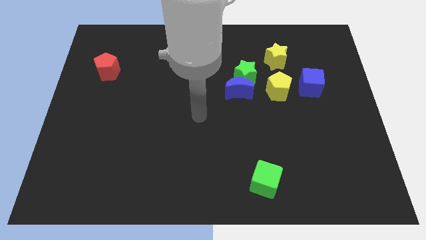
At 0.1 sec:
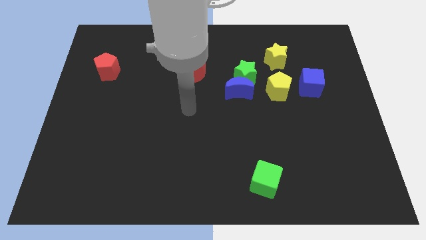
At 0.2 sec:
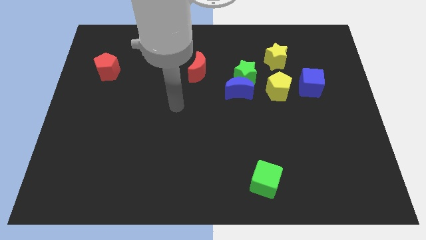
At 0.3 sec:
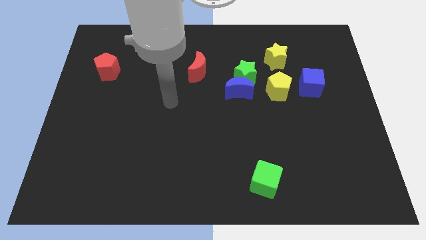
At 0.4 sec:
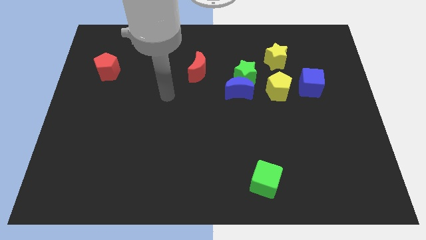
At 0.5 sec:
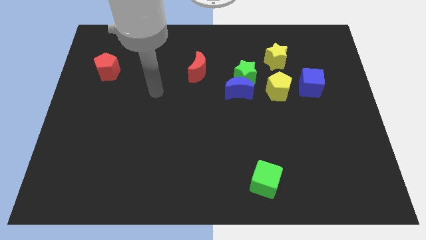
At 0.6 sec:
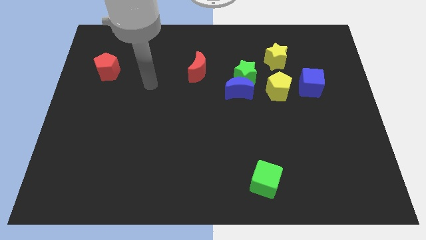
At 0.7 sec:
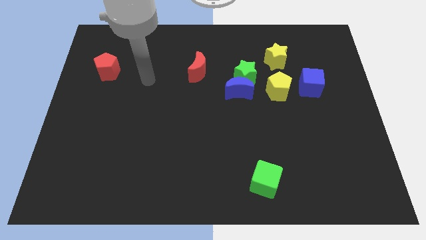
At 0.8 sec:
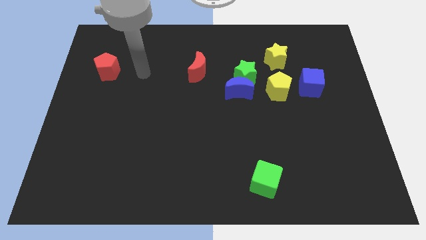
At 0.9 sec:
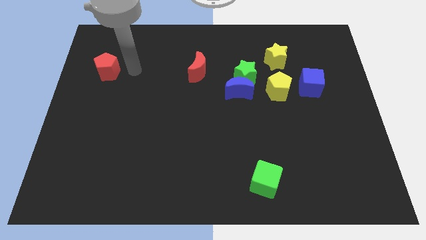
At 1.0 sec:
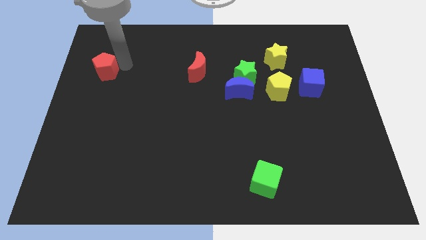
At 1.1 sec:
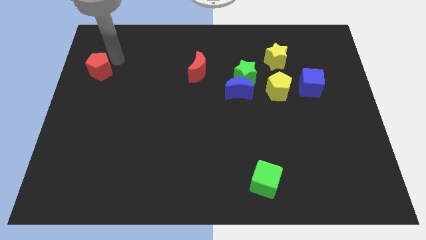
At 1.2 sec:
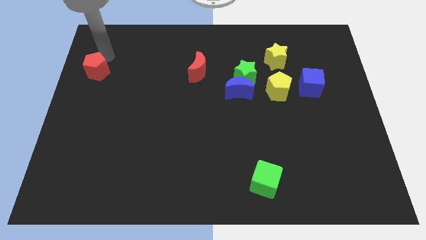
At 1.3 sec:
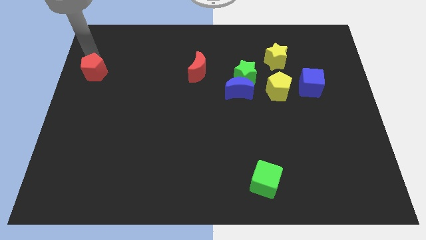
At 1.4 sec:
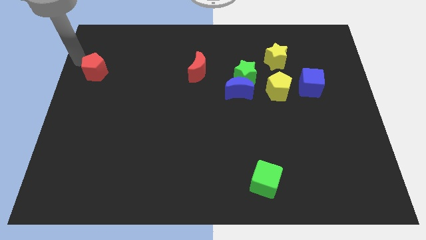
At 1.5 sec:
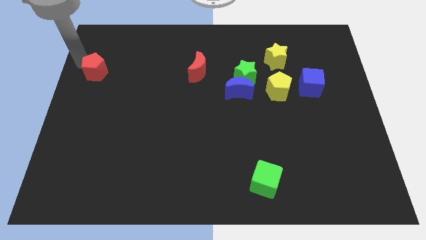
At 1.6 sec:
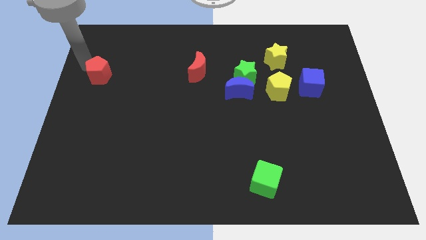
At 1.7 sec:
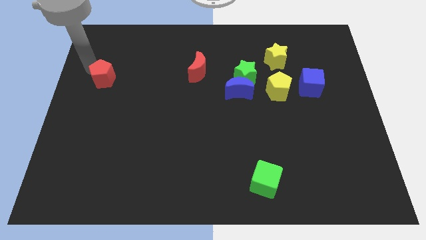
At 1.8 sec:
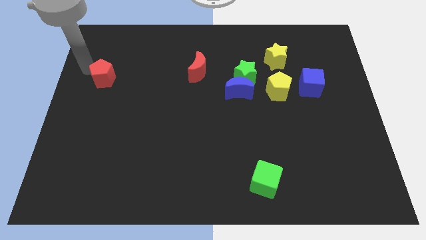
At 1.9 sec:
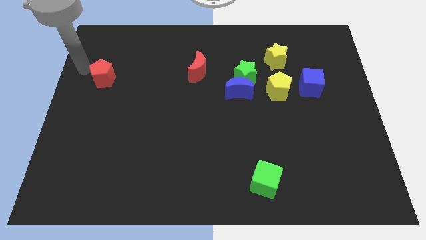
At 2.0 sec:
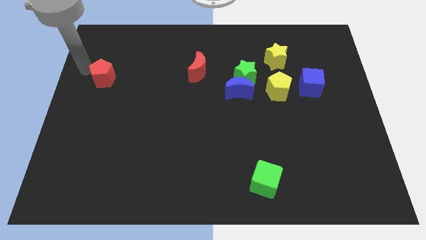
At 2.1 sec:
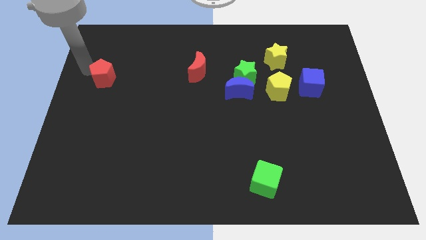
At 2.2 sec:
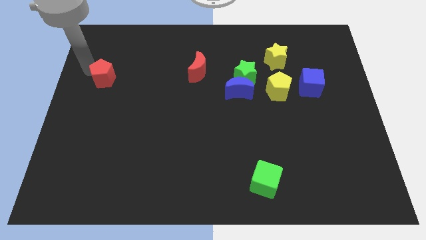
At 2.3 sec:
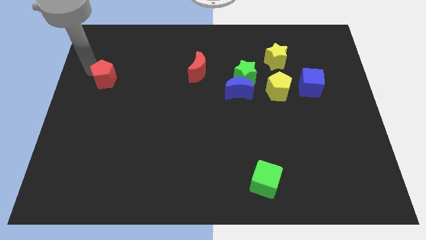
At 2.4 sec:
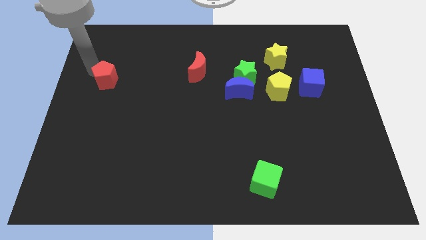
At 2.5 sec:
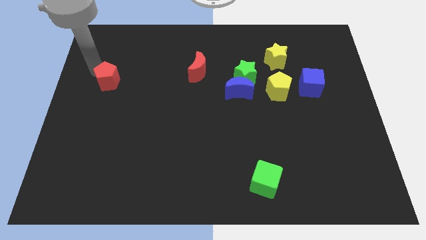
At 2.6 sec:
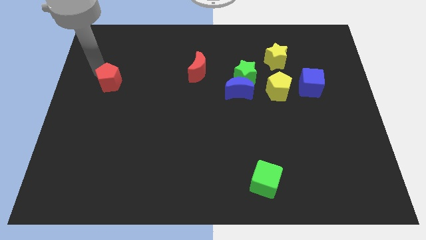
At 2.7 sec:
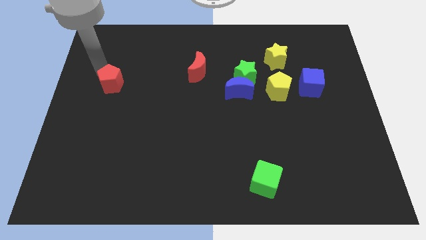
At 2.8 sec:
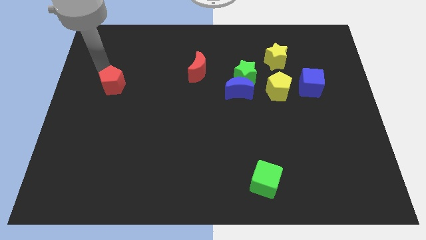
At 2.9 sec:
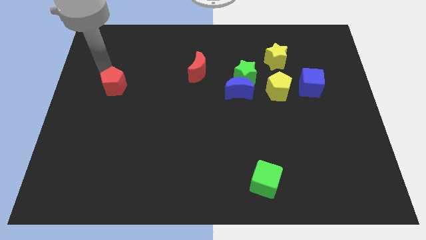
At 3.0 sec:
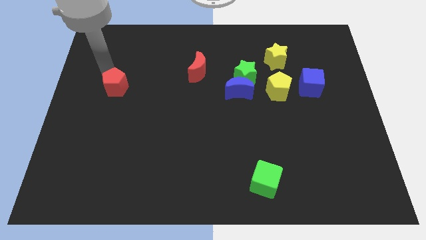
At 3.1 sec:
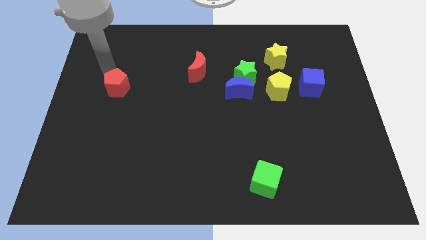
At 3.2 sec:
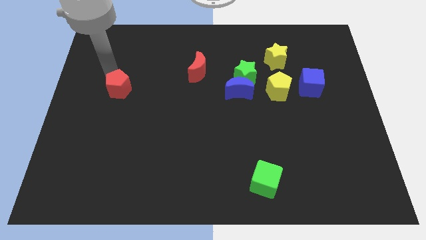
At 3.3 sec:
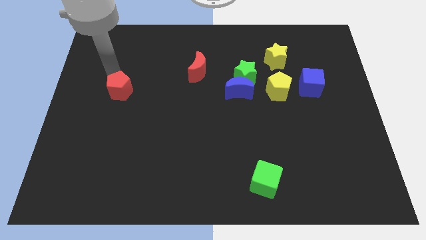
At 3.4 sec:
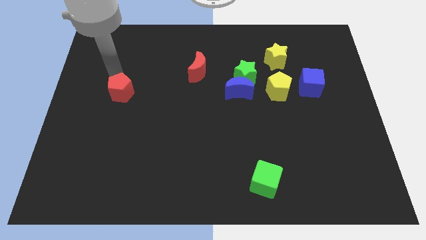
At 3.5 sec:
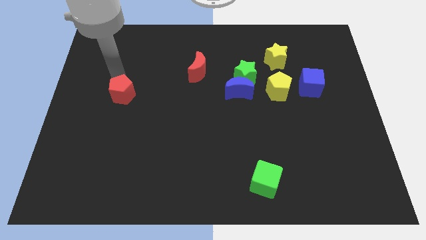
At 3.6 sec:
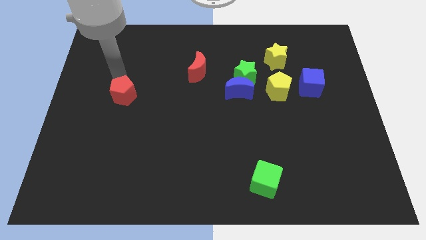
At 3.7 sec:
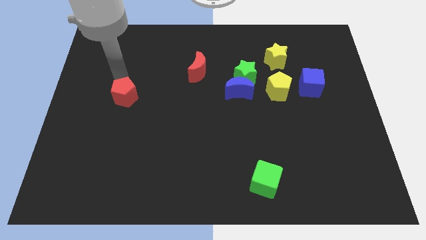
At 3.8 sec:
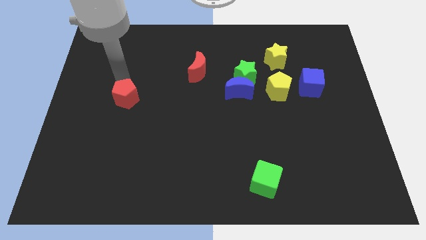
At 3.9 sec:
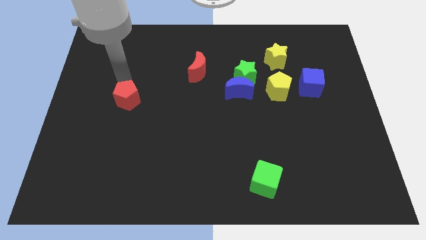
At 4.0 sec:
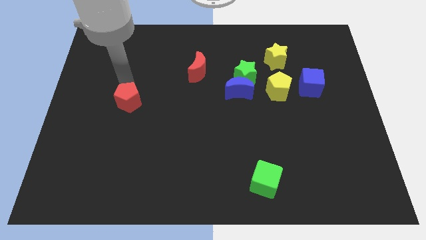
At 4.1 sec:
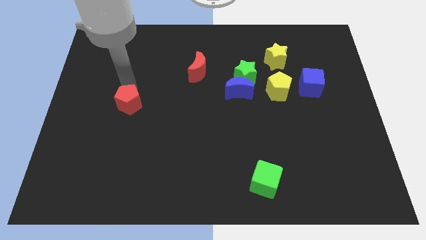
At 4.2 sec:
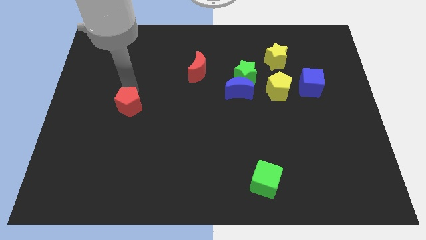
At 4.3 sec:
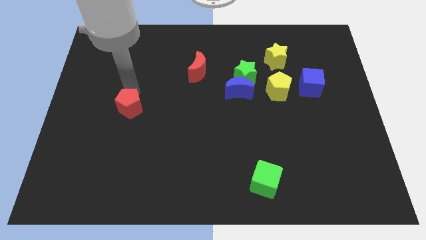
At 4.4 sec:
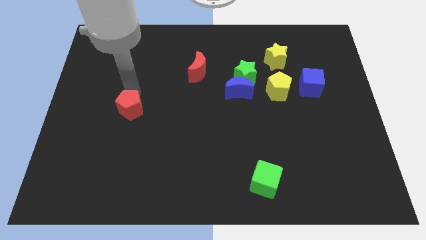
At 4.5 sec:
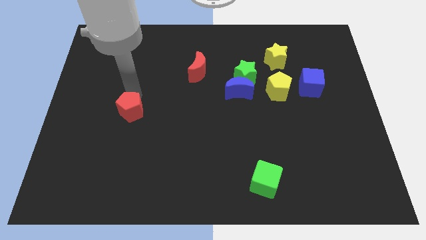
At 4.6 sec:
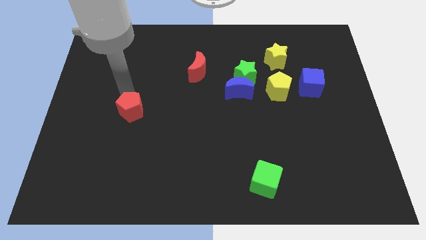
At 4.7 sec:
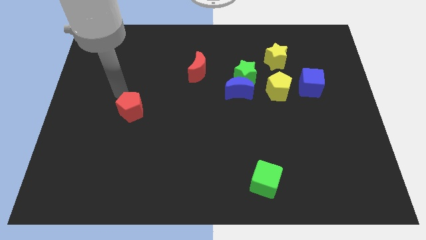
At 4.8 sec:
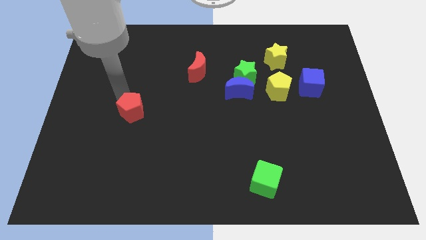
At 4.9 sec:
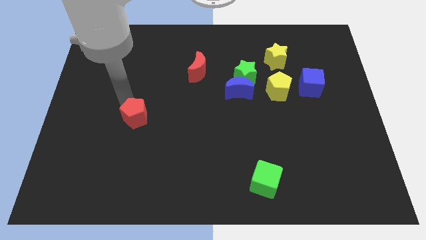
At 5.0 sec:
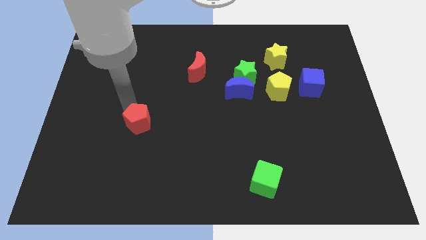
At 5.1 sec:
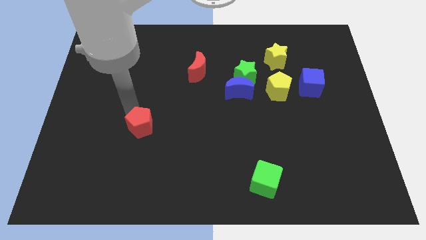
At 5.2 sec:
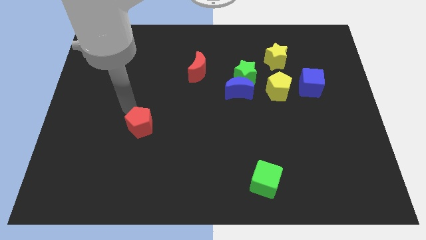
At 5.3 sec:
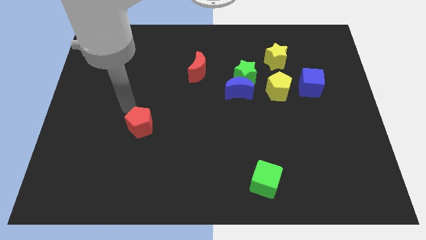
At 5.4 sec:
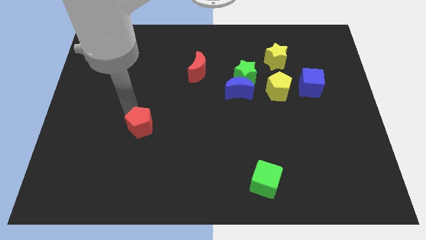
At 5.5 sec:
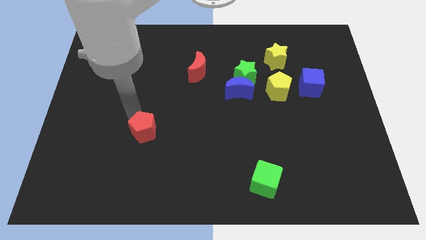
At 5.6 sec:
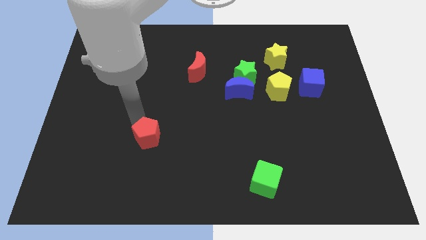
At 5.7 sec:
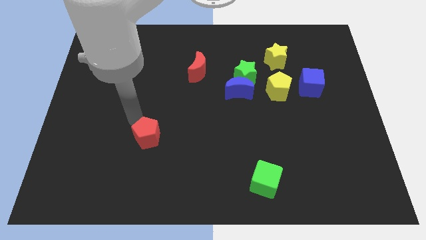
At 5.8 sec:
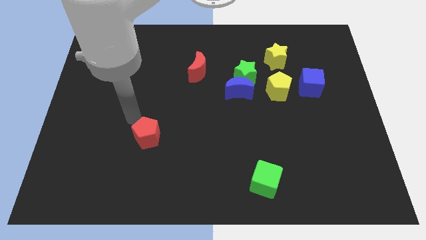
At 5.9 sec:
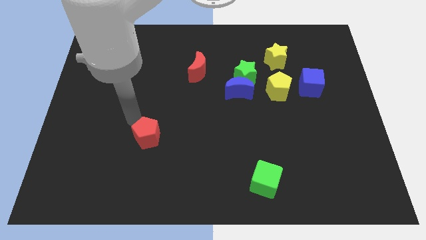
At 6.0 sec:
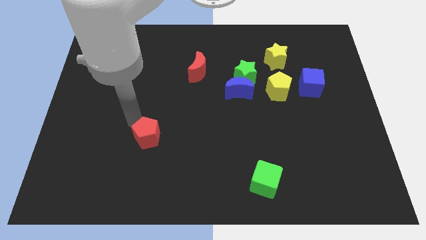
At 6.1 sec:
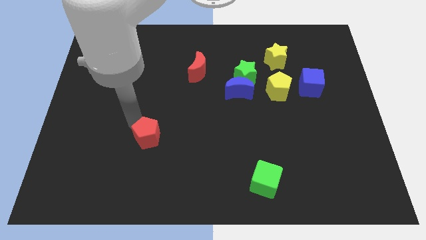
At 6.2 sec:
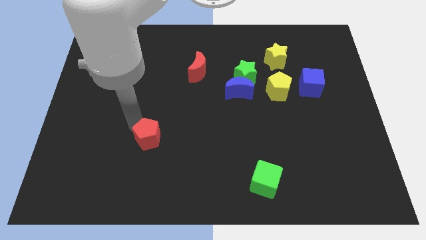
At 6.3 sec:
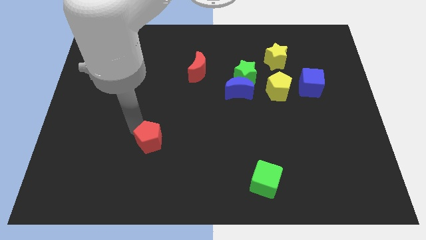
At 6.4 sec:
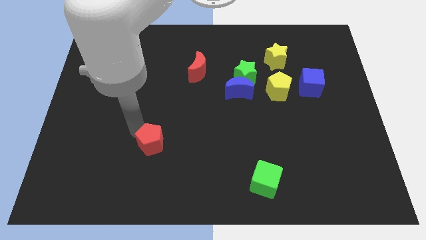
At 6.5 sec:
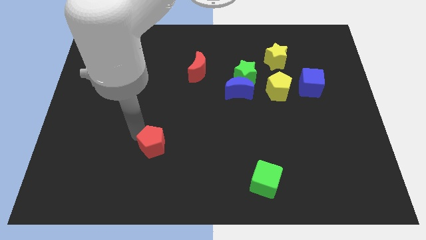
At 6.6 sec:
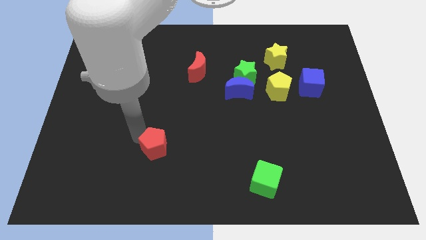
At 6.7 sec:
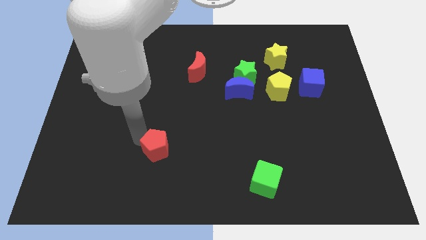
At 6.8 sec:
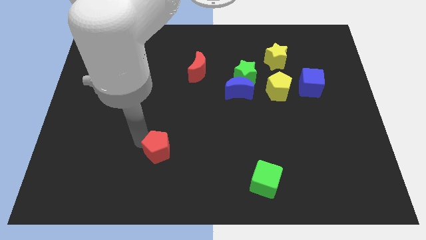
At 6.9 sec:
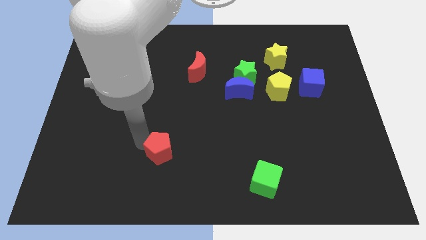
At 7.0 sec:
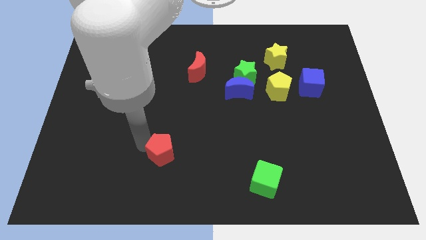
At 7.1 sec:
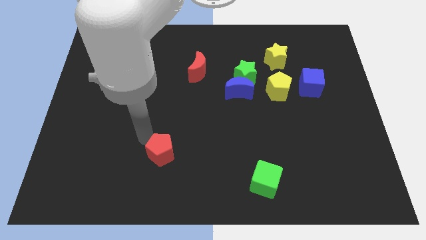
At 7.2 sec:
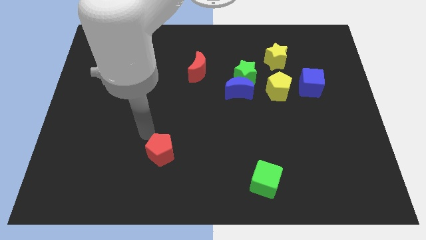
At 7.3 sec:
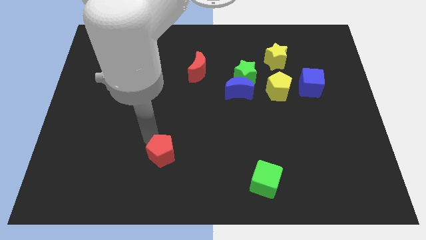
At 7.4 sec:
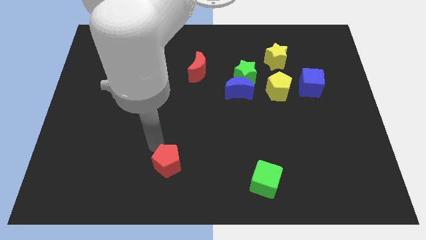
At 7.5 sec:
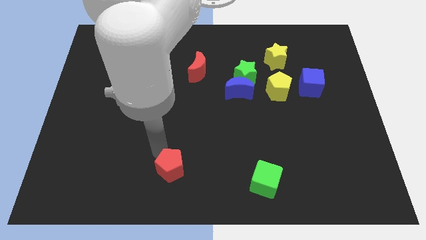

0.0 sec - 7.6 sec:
put the red pentagon to the bottom
